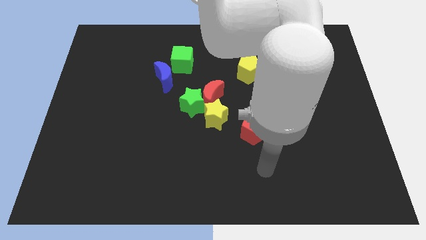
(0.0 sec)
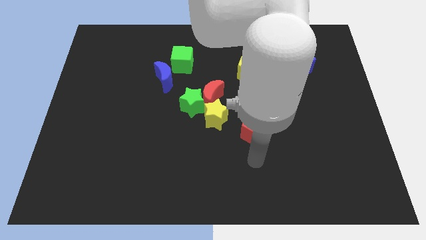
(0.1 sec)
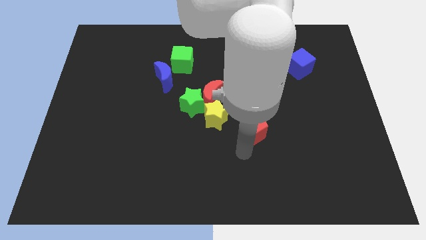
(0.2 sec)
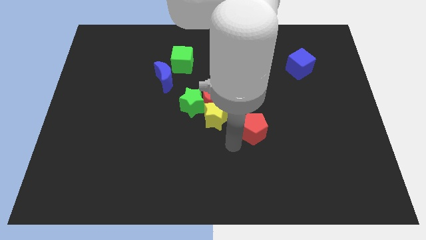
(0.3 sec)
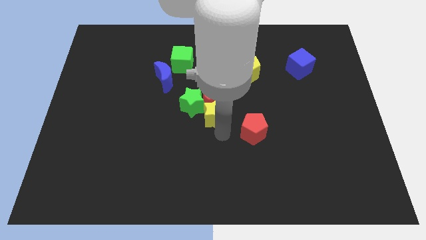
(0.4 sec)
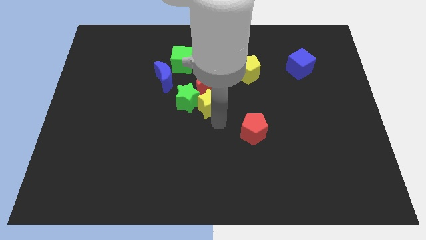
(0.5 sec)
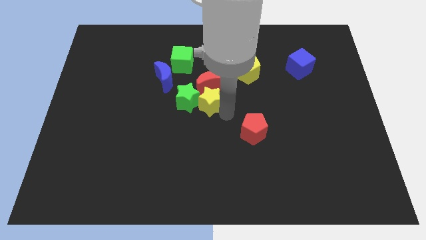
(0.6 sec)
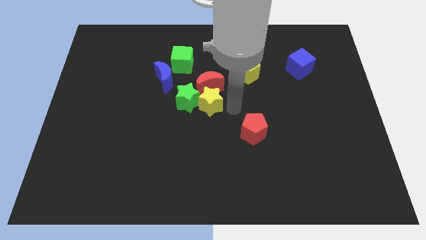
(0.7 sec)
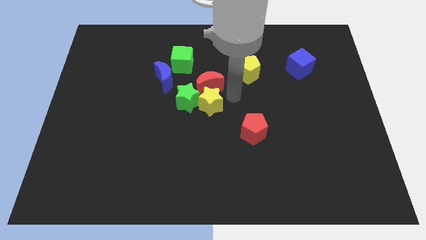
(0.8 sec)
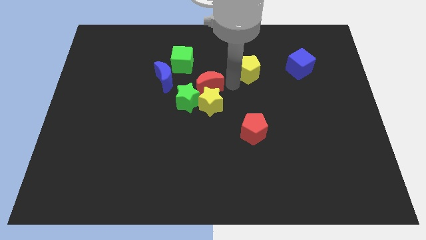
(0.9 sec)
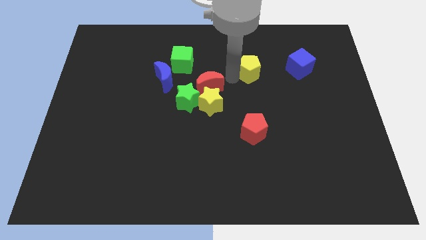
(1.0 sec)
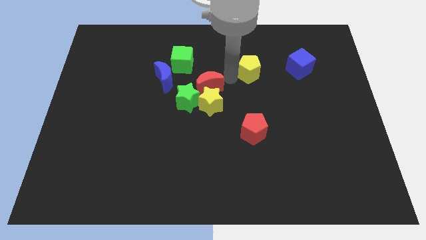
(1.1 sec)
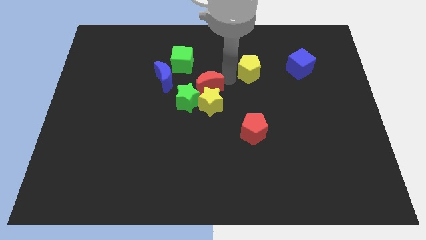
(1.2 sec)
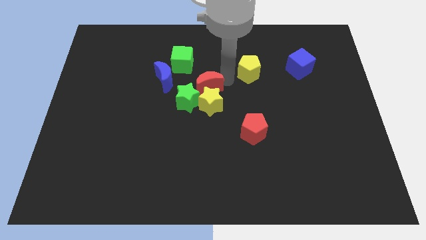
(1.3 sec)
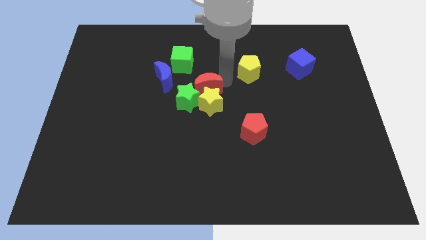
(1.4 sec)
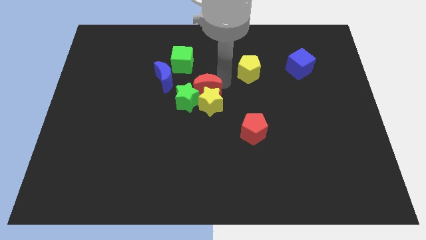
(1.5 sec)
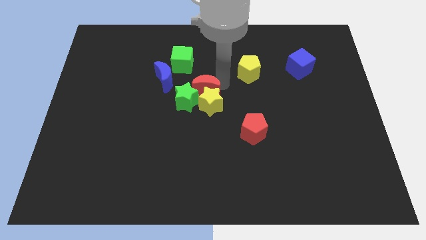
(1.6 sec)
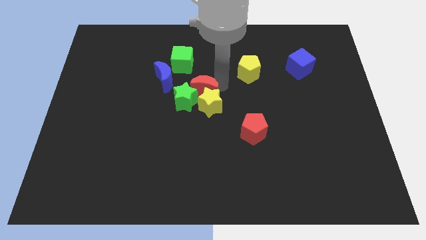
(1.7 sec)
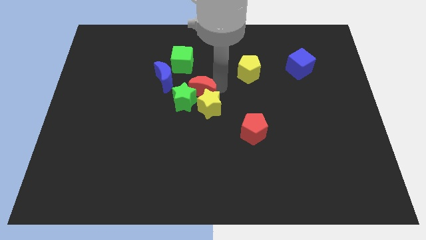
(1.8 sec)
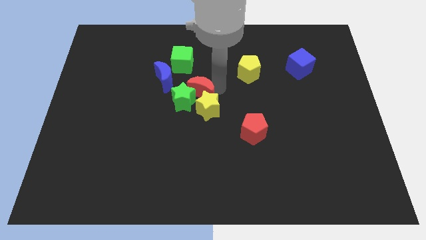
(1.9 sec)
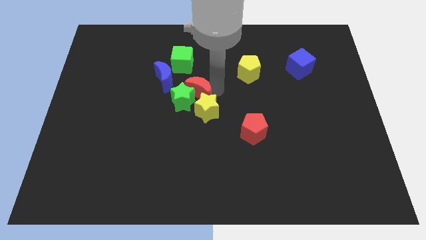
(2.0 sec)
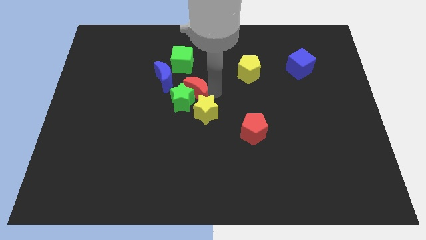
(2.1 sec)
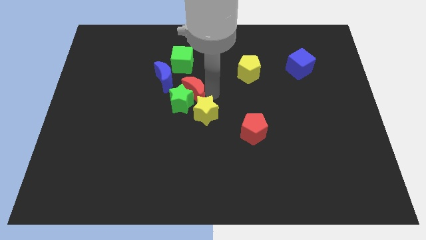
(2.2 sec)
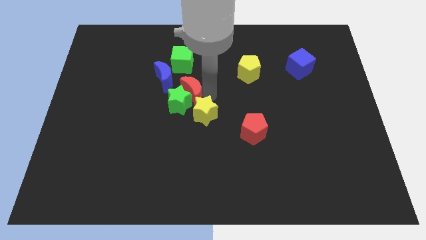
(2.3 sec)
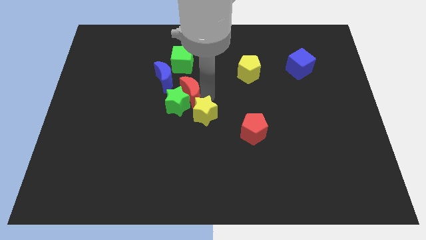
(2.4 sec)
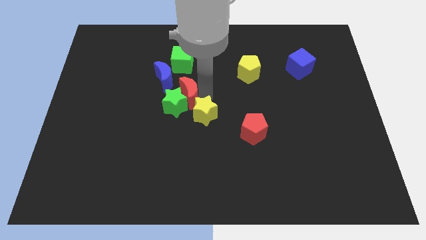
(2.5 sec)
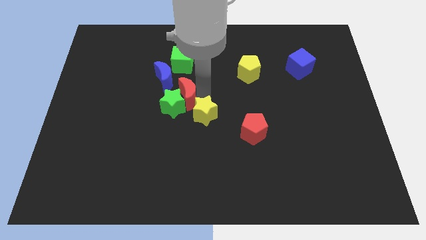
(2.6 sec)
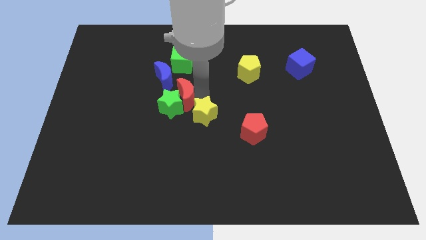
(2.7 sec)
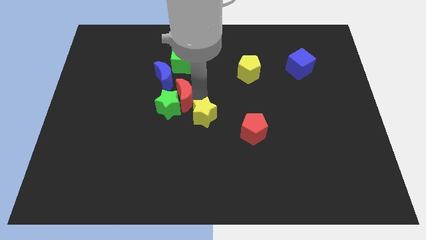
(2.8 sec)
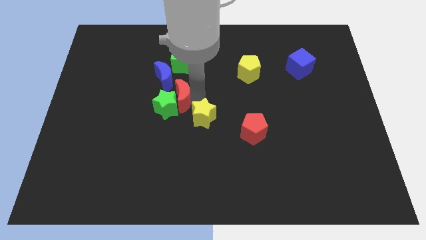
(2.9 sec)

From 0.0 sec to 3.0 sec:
slide the red moon somewhat to the left

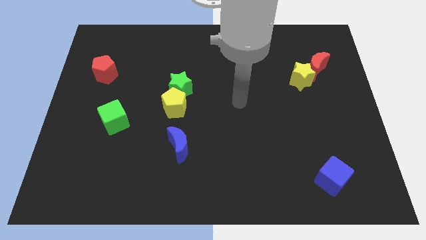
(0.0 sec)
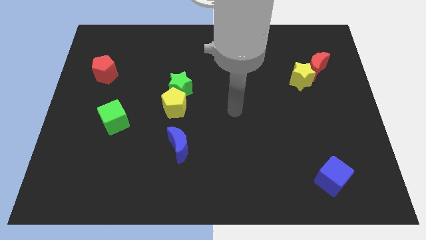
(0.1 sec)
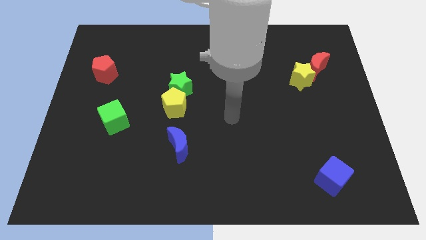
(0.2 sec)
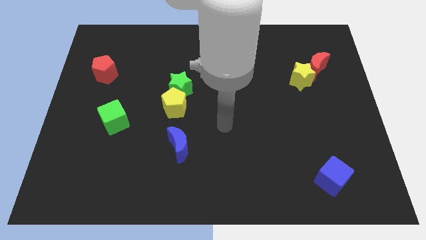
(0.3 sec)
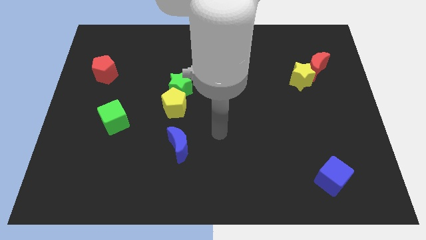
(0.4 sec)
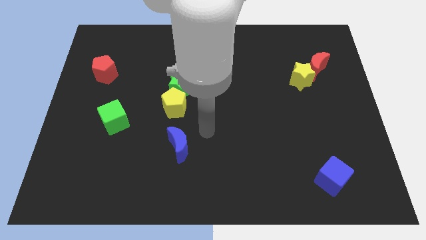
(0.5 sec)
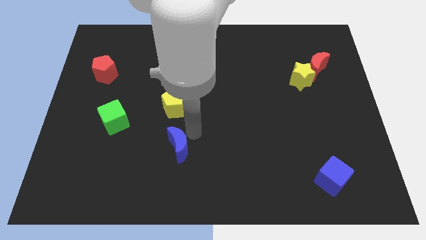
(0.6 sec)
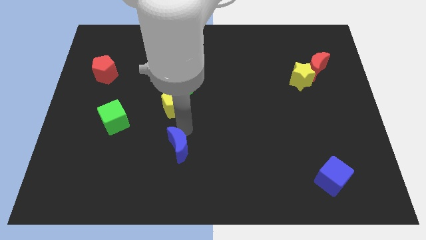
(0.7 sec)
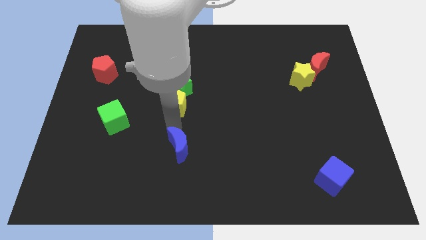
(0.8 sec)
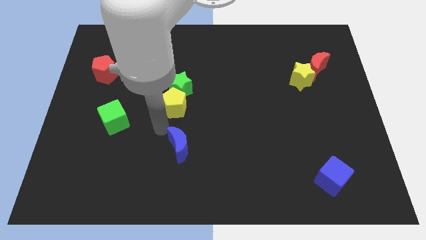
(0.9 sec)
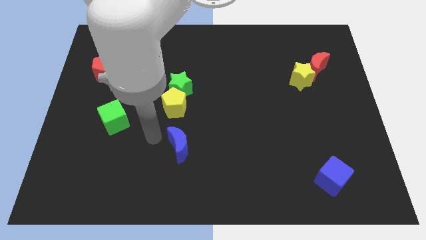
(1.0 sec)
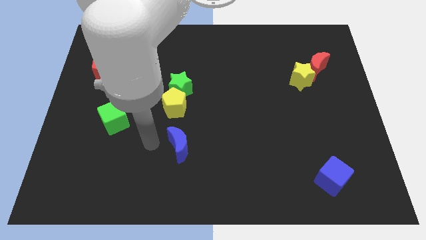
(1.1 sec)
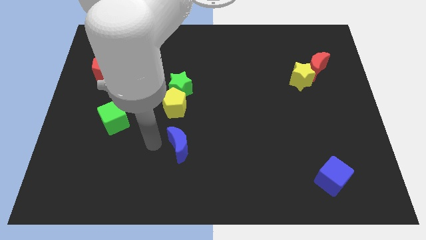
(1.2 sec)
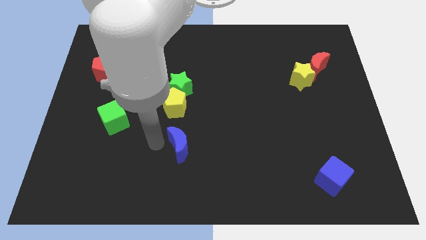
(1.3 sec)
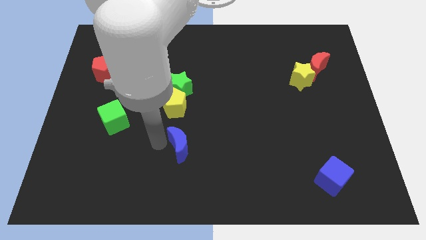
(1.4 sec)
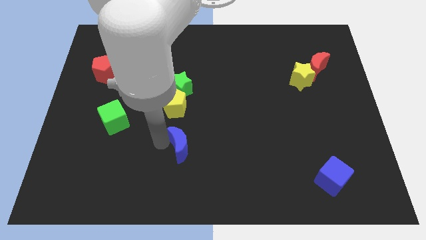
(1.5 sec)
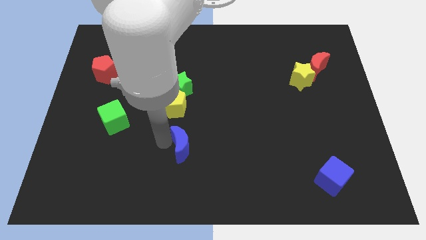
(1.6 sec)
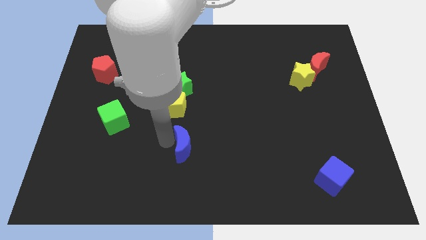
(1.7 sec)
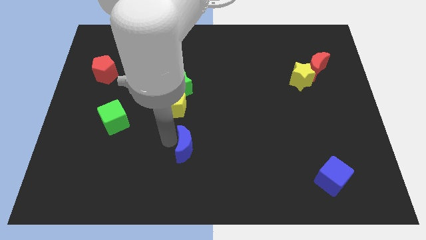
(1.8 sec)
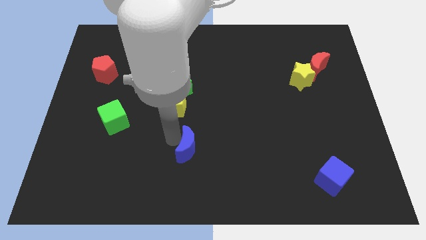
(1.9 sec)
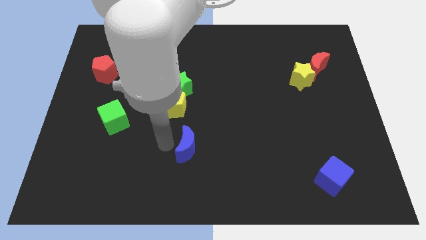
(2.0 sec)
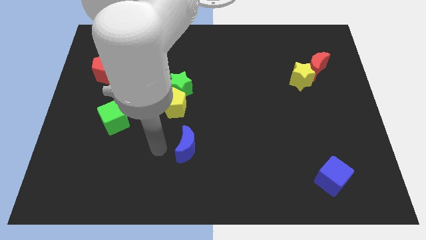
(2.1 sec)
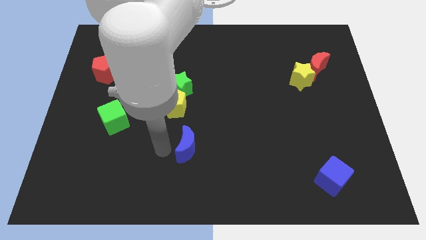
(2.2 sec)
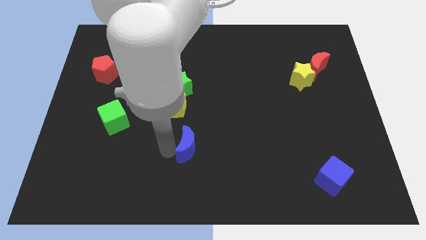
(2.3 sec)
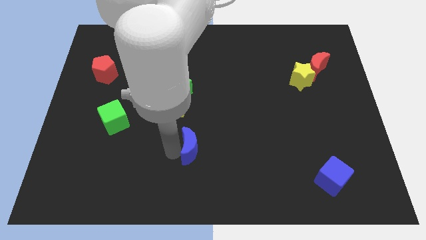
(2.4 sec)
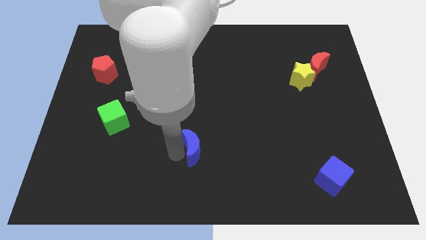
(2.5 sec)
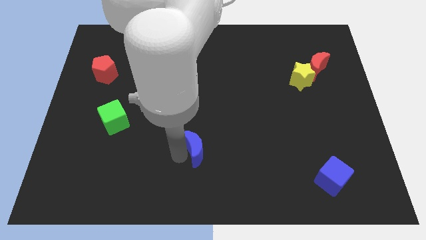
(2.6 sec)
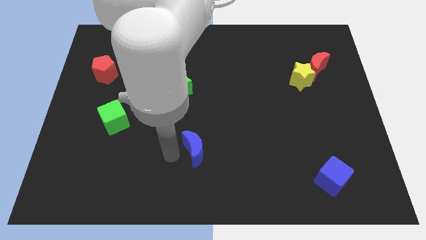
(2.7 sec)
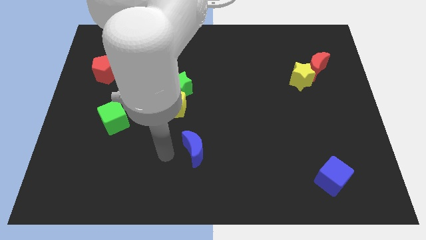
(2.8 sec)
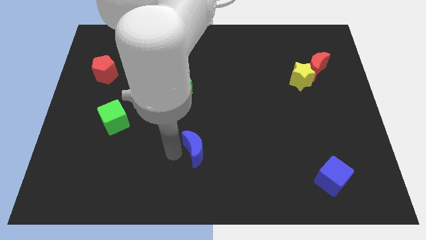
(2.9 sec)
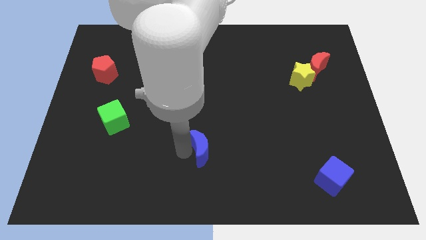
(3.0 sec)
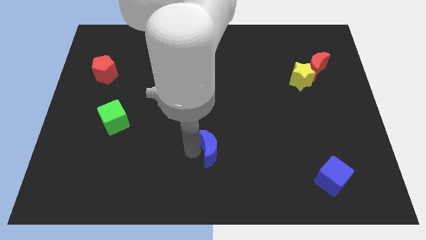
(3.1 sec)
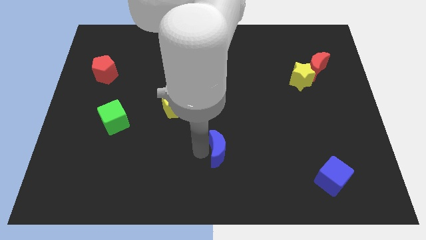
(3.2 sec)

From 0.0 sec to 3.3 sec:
slide the blue moon somewhat right

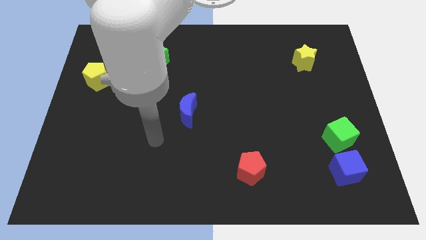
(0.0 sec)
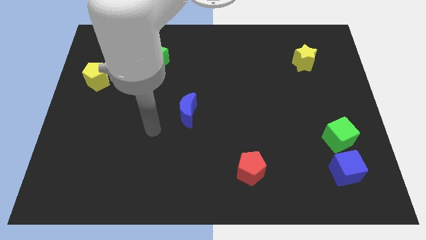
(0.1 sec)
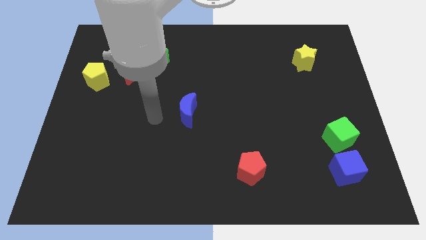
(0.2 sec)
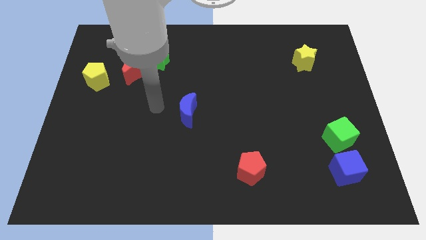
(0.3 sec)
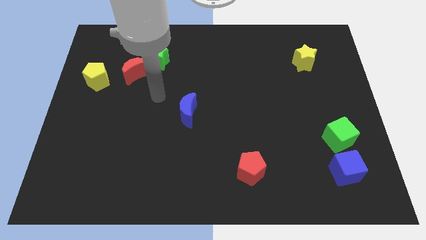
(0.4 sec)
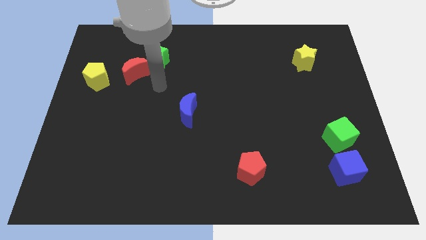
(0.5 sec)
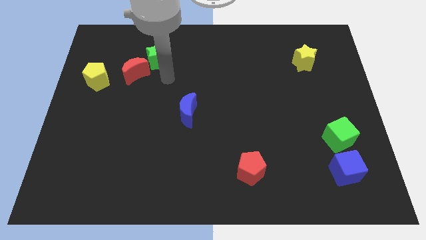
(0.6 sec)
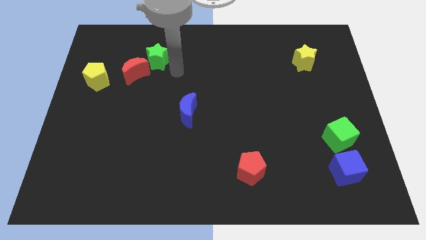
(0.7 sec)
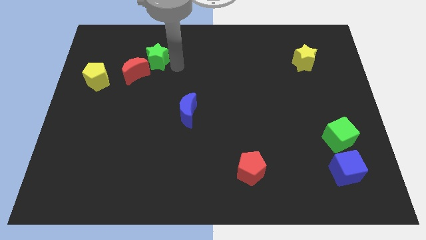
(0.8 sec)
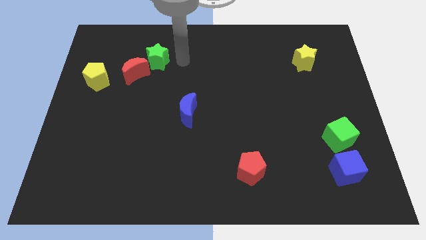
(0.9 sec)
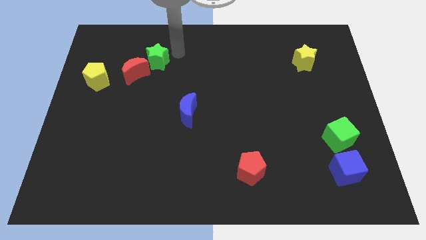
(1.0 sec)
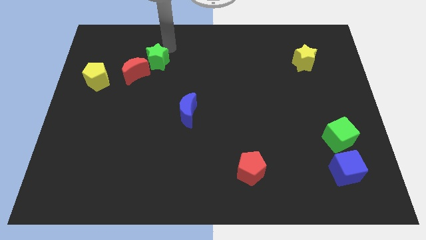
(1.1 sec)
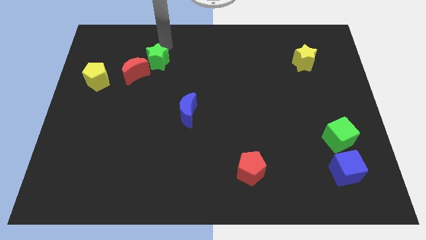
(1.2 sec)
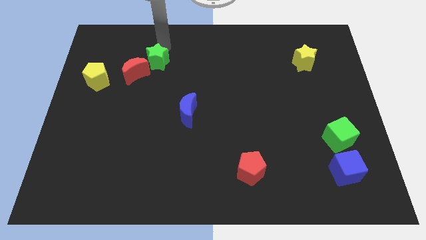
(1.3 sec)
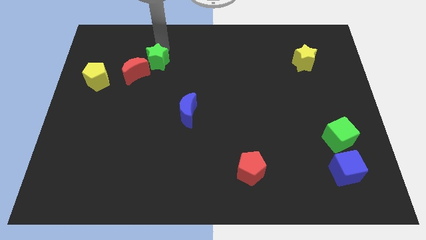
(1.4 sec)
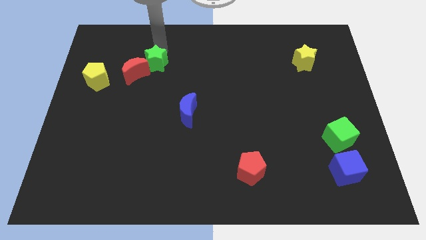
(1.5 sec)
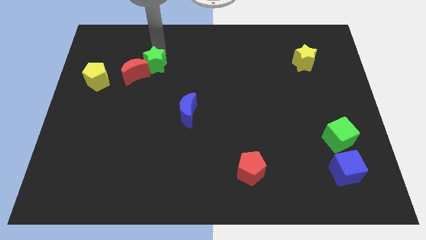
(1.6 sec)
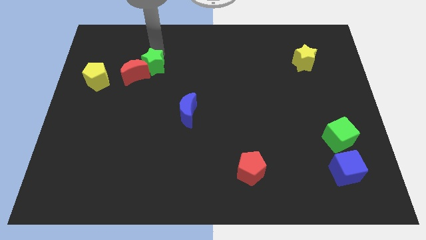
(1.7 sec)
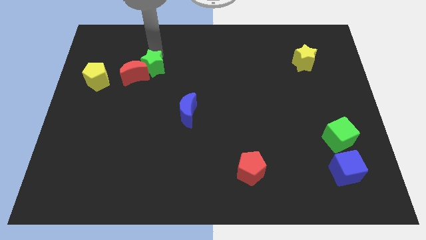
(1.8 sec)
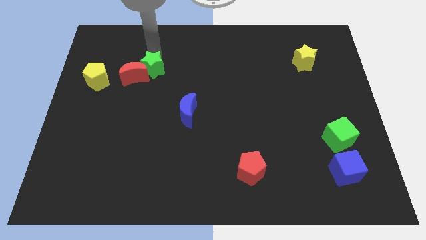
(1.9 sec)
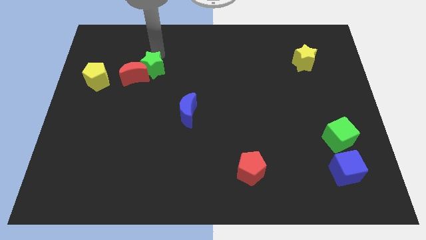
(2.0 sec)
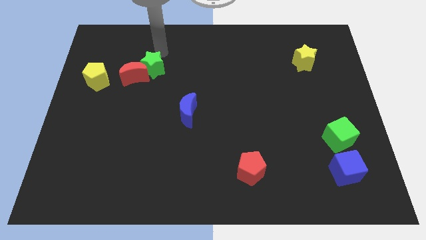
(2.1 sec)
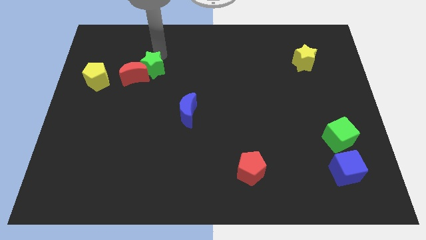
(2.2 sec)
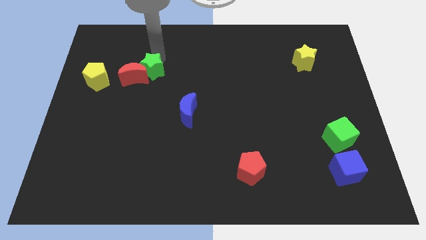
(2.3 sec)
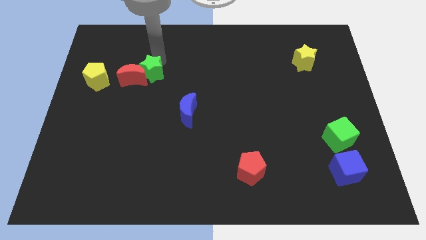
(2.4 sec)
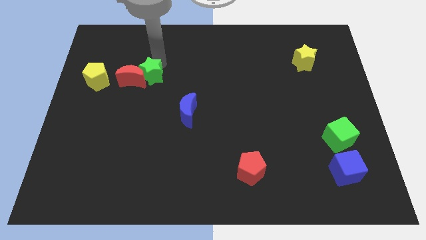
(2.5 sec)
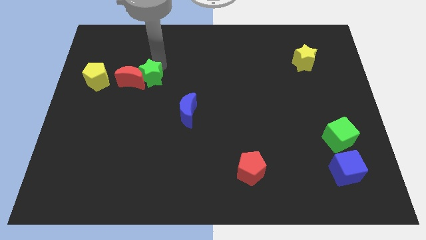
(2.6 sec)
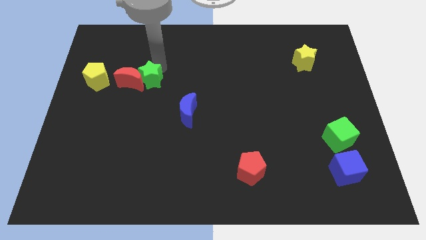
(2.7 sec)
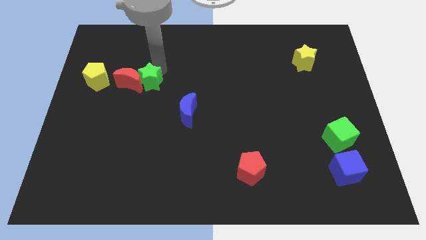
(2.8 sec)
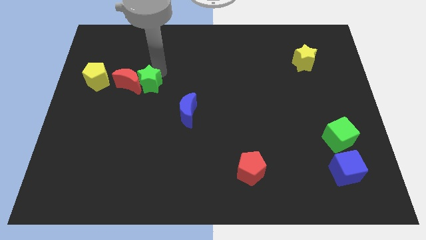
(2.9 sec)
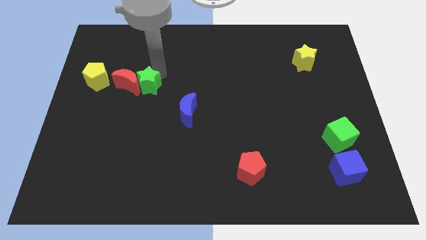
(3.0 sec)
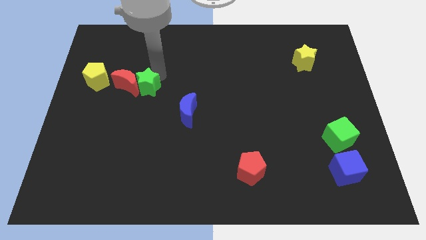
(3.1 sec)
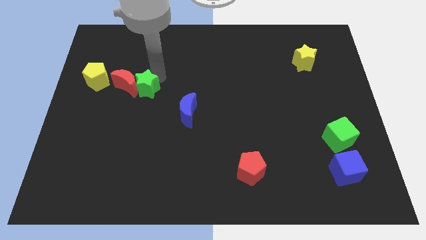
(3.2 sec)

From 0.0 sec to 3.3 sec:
slide the green star down and to the left a little
